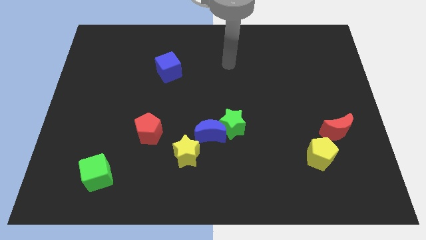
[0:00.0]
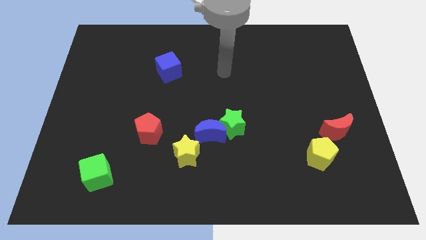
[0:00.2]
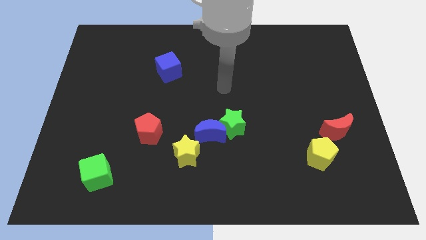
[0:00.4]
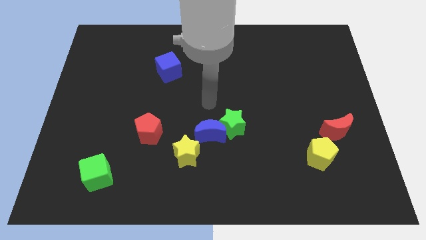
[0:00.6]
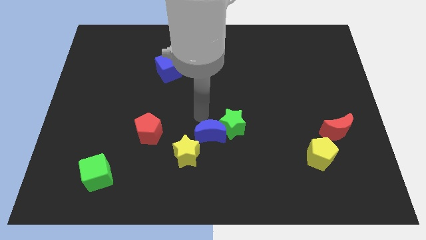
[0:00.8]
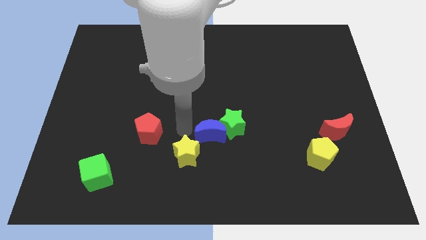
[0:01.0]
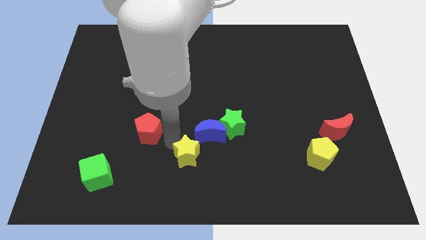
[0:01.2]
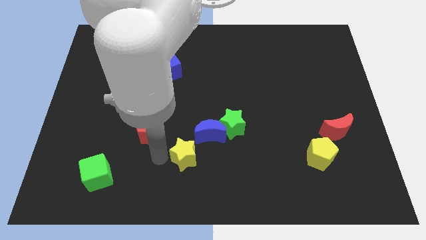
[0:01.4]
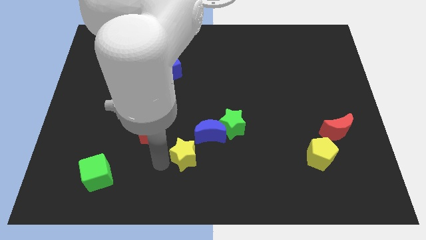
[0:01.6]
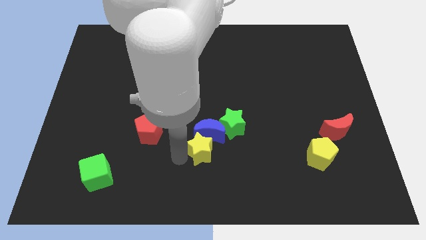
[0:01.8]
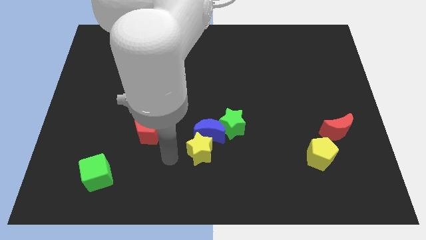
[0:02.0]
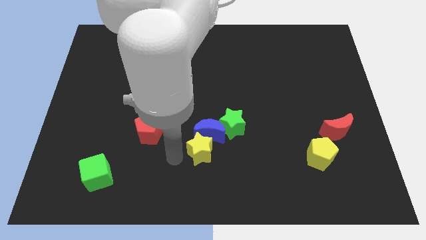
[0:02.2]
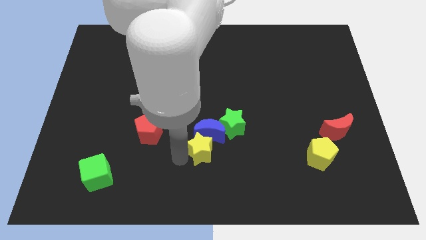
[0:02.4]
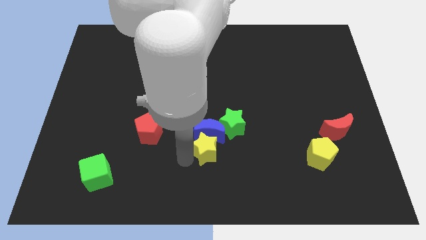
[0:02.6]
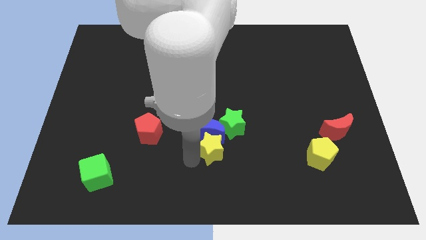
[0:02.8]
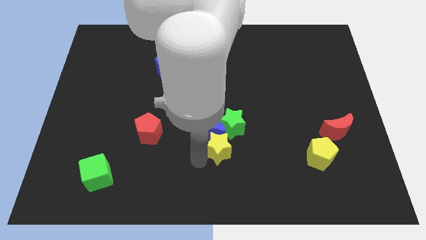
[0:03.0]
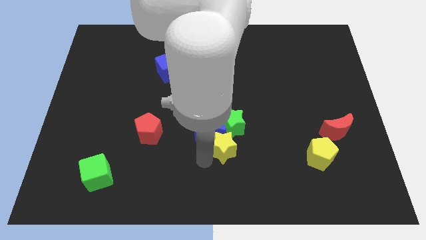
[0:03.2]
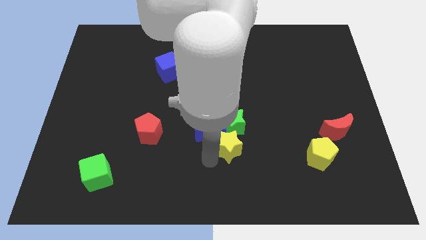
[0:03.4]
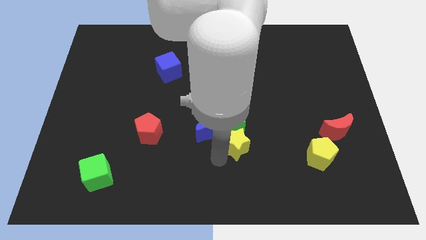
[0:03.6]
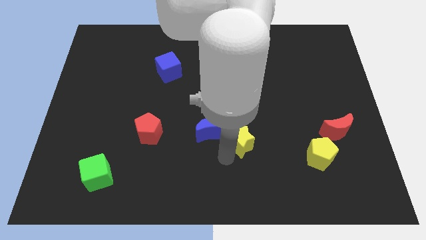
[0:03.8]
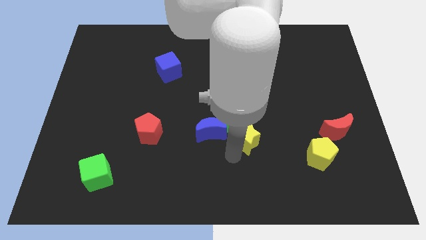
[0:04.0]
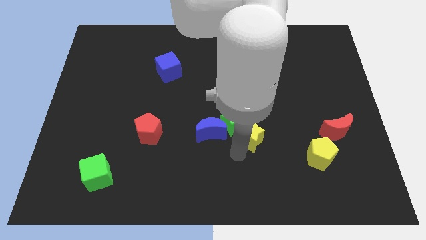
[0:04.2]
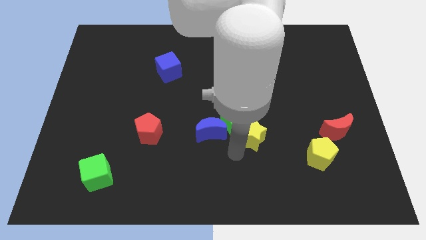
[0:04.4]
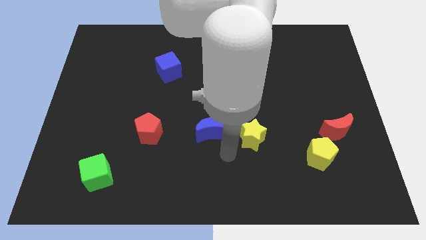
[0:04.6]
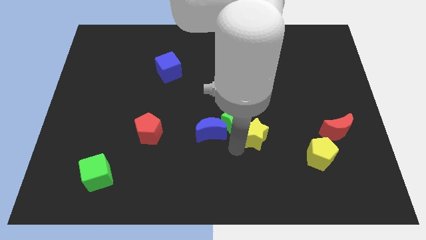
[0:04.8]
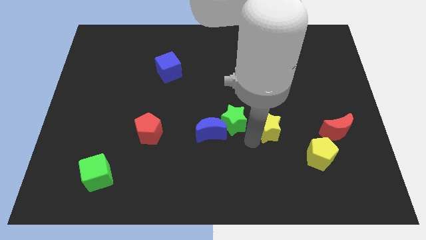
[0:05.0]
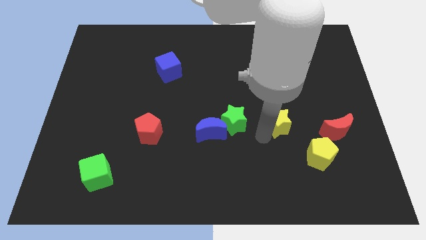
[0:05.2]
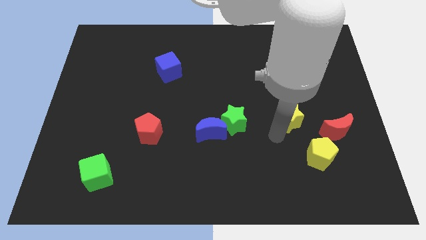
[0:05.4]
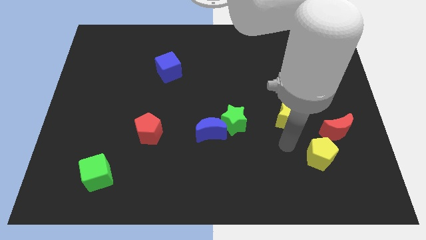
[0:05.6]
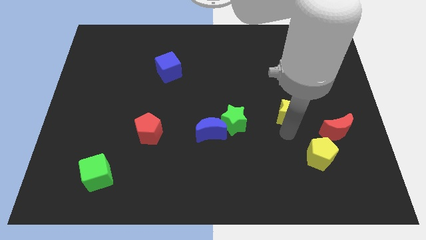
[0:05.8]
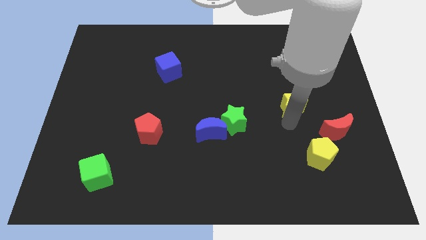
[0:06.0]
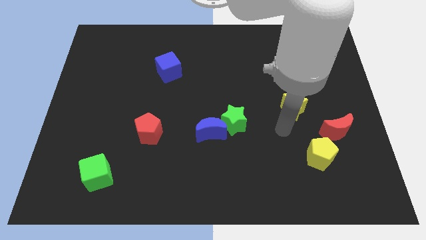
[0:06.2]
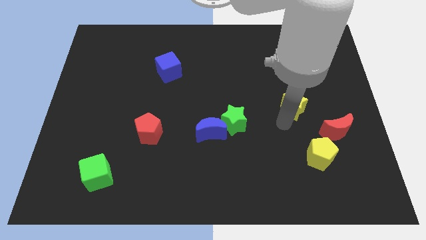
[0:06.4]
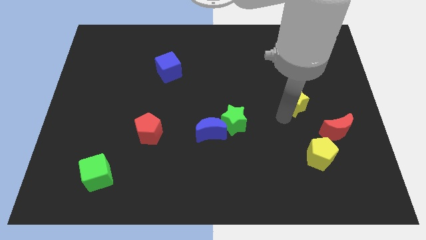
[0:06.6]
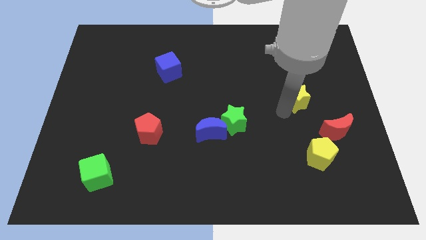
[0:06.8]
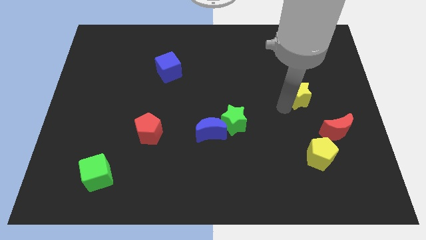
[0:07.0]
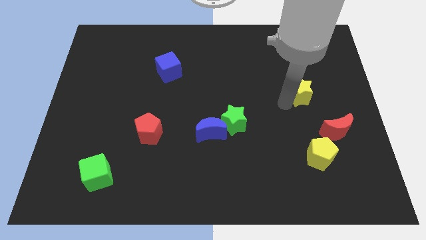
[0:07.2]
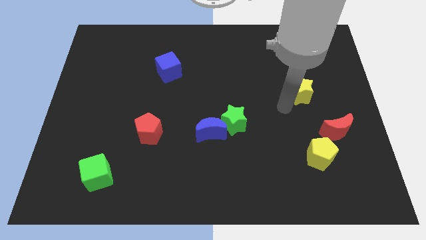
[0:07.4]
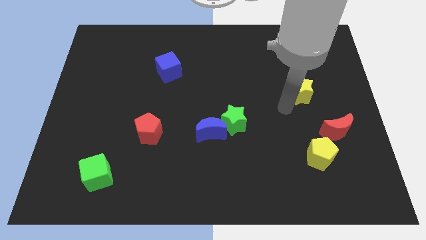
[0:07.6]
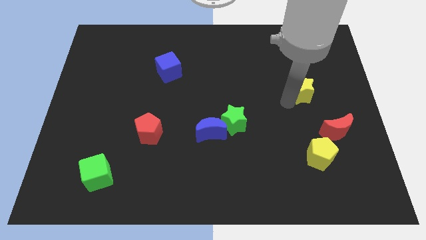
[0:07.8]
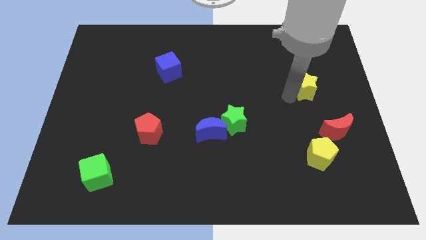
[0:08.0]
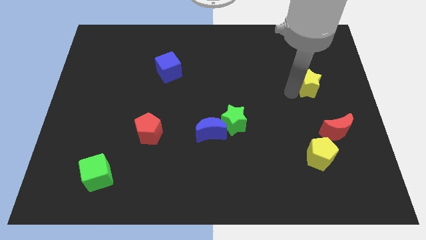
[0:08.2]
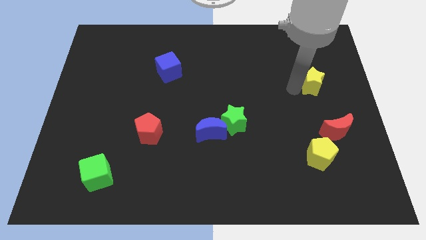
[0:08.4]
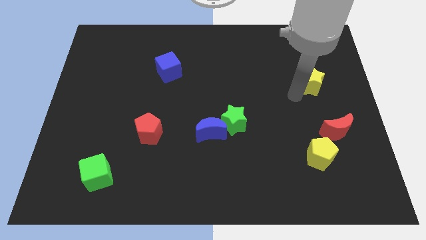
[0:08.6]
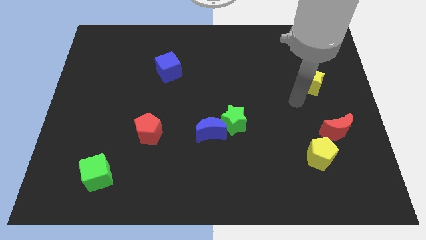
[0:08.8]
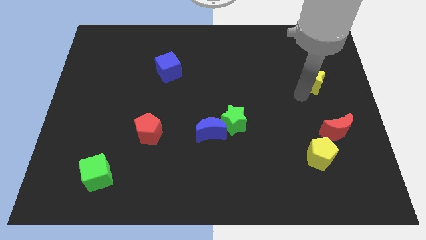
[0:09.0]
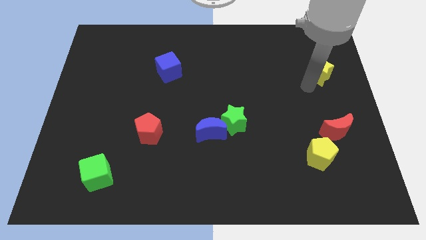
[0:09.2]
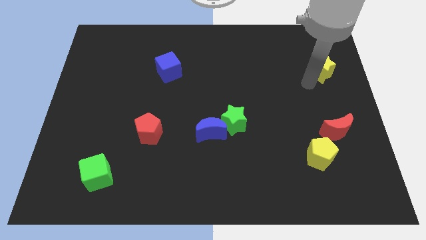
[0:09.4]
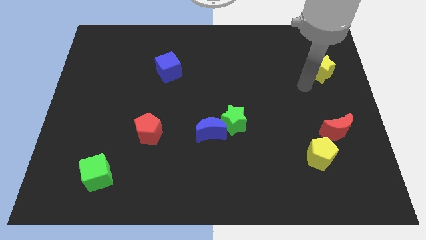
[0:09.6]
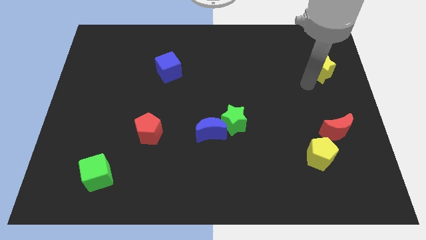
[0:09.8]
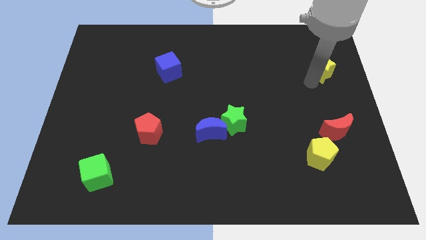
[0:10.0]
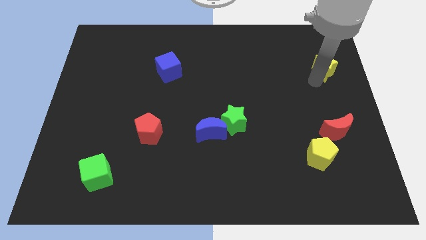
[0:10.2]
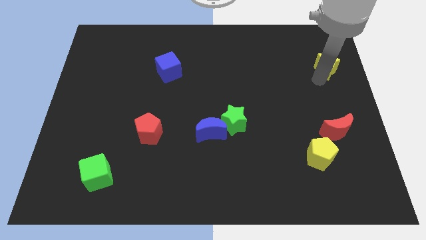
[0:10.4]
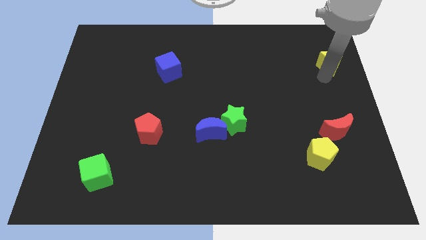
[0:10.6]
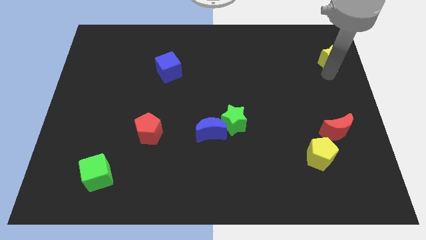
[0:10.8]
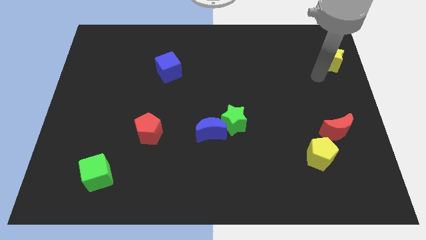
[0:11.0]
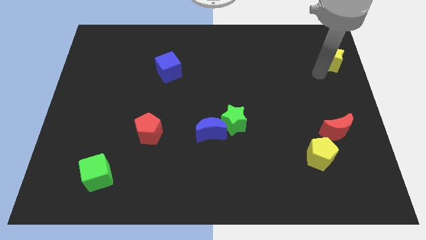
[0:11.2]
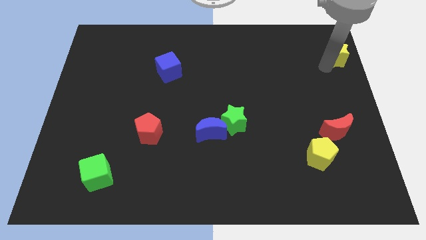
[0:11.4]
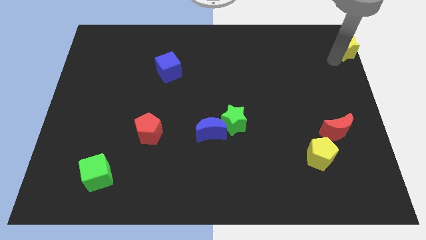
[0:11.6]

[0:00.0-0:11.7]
put the yellow star to the top right

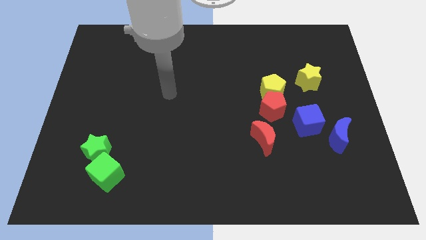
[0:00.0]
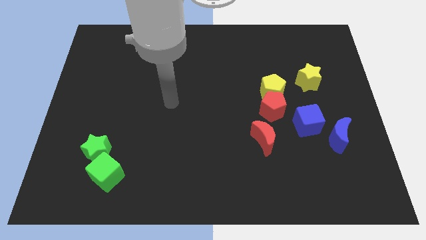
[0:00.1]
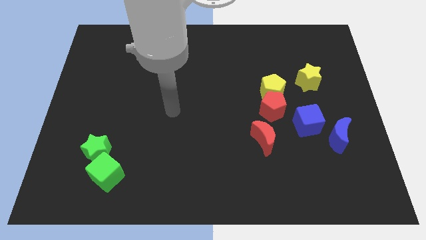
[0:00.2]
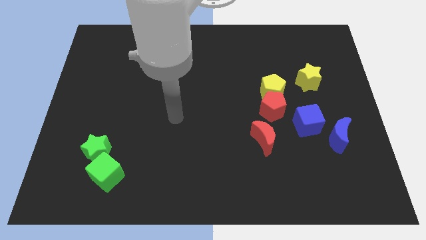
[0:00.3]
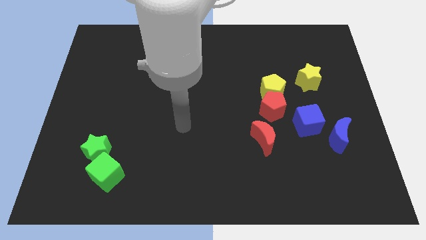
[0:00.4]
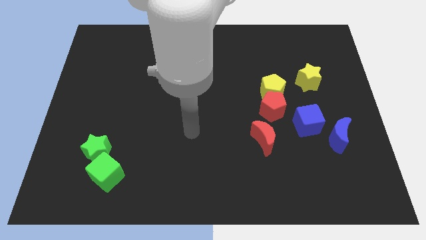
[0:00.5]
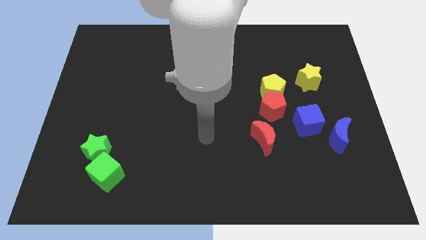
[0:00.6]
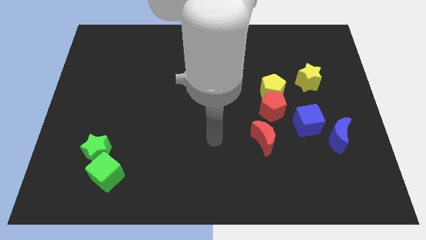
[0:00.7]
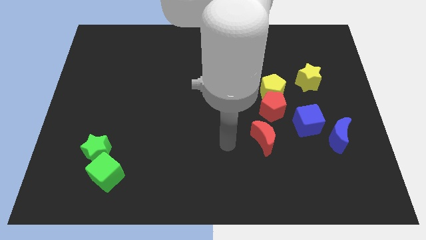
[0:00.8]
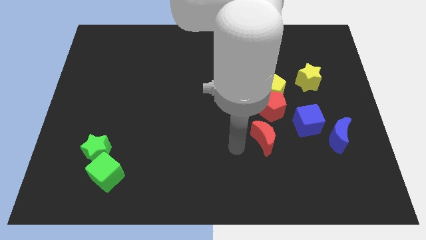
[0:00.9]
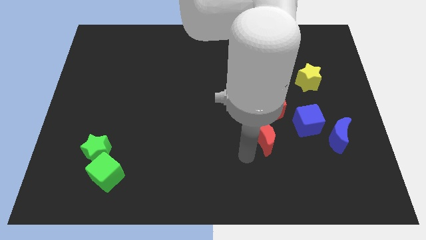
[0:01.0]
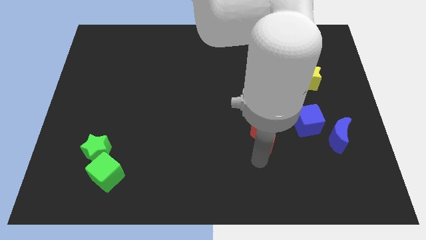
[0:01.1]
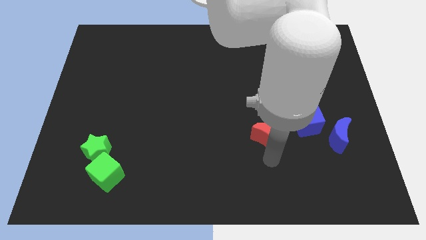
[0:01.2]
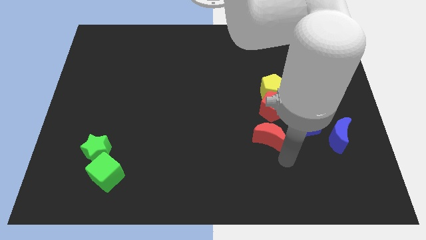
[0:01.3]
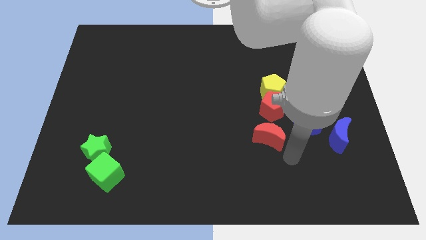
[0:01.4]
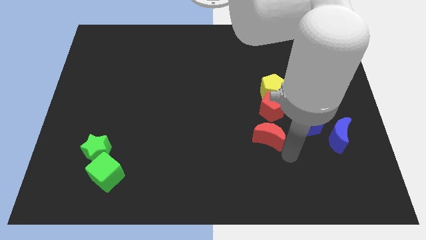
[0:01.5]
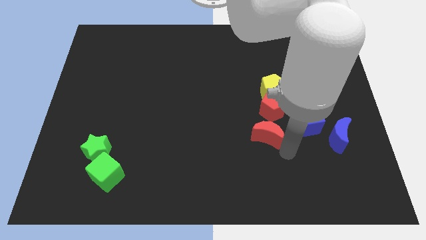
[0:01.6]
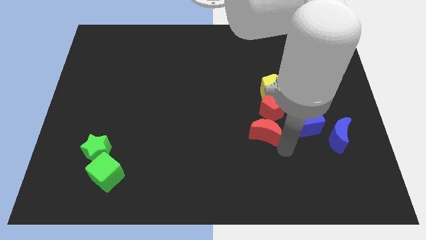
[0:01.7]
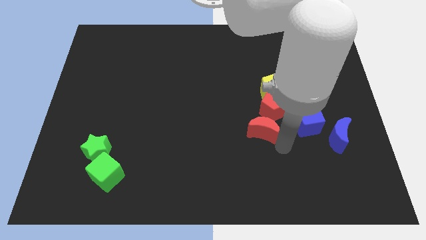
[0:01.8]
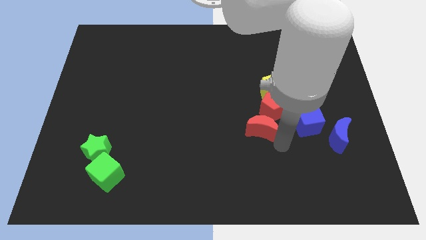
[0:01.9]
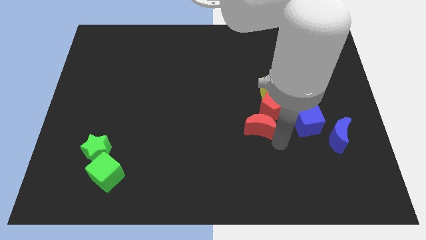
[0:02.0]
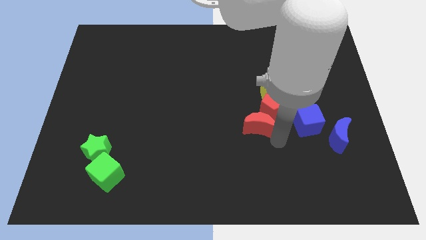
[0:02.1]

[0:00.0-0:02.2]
move the red moon to the center
